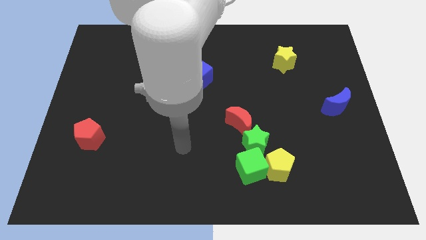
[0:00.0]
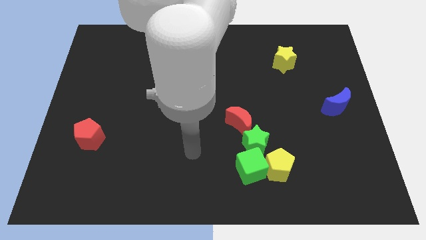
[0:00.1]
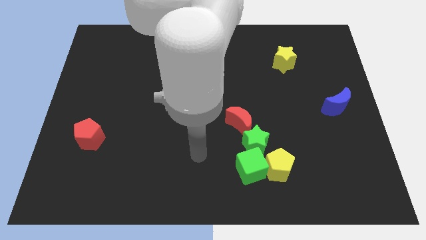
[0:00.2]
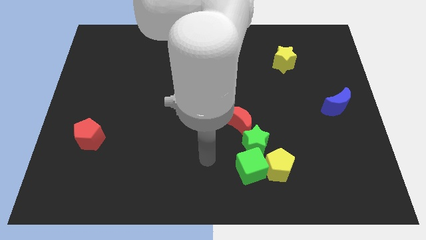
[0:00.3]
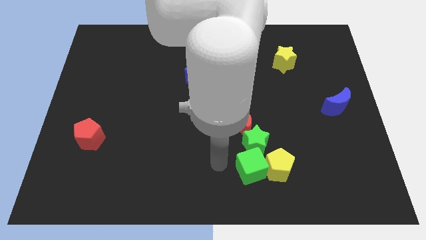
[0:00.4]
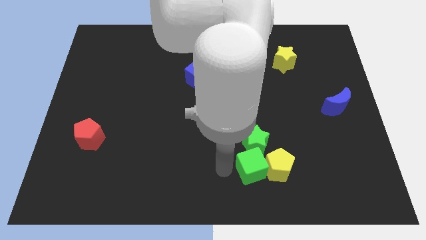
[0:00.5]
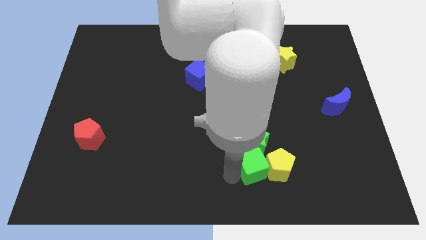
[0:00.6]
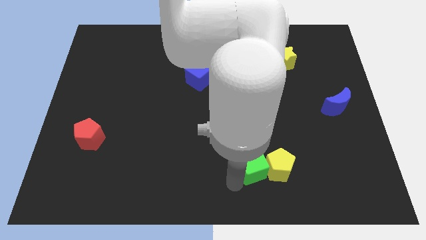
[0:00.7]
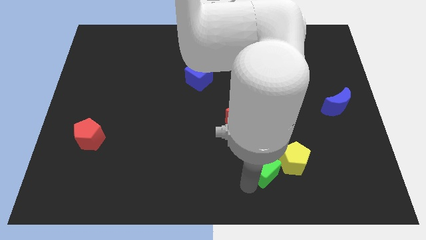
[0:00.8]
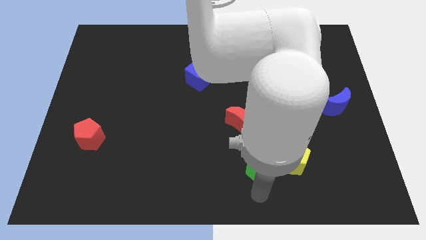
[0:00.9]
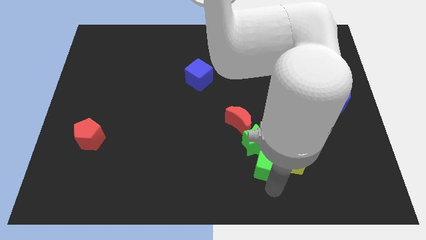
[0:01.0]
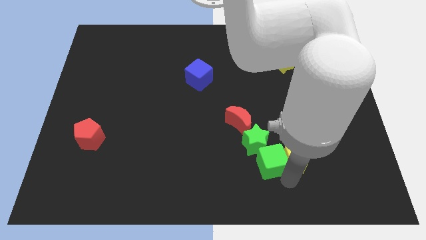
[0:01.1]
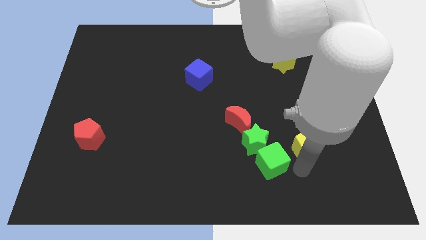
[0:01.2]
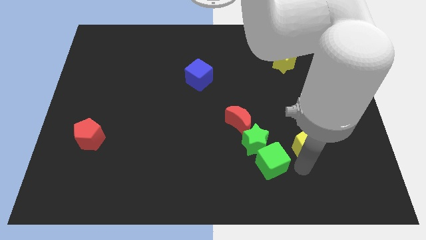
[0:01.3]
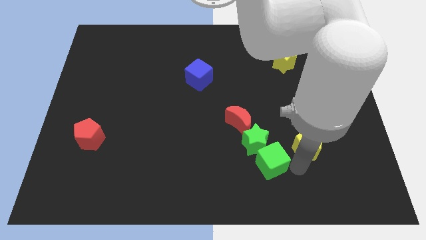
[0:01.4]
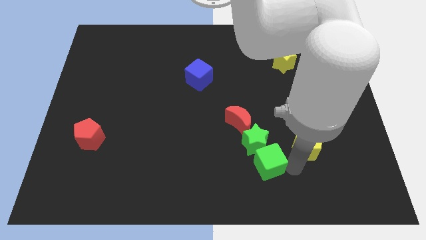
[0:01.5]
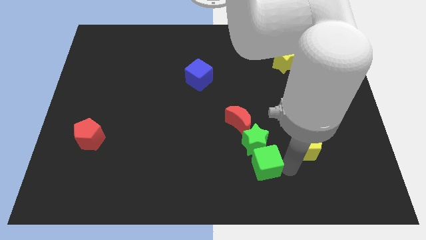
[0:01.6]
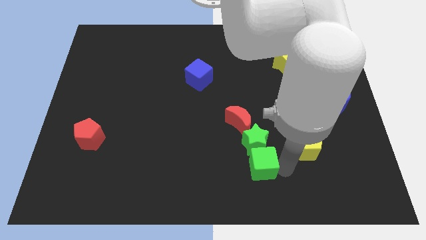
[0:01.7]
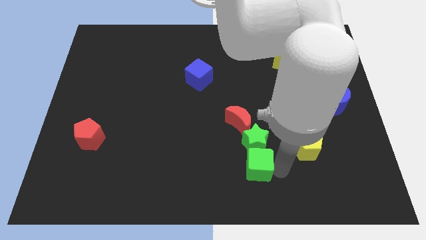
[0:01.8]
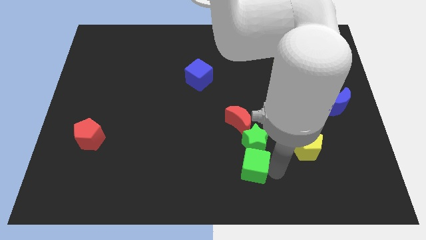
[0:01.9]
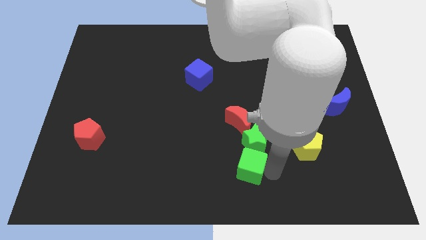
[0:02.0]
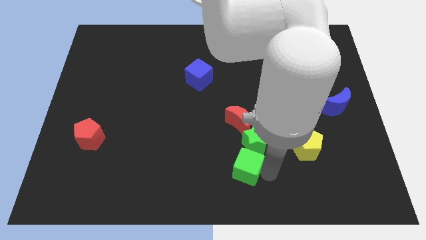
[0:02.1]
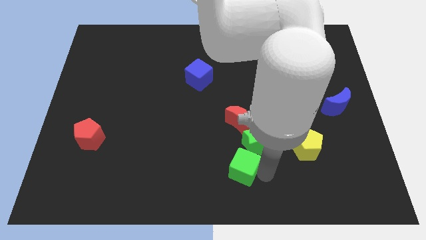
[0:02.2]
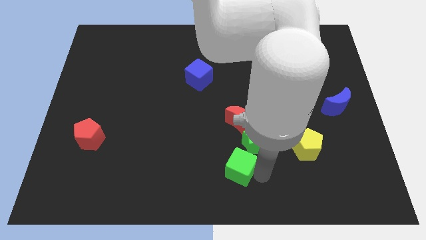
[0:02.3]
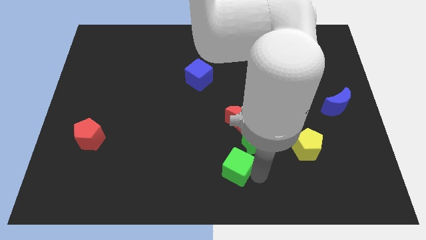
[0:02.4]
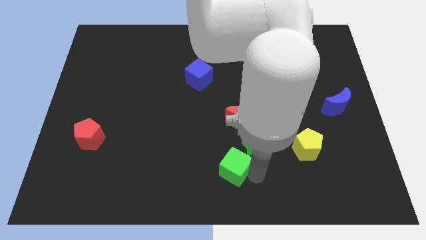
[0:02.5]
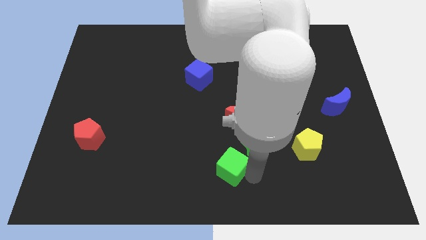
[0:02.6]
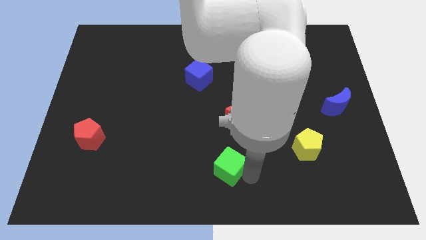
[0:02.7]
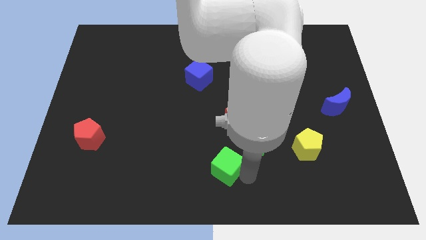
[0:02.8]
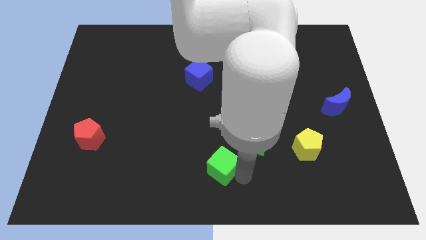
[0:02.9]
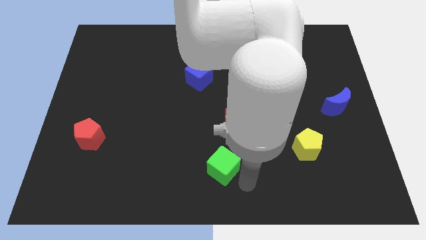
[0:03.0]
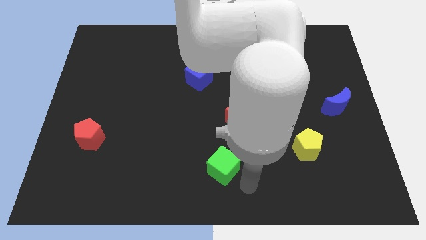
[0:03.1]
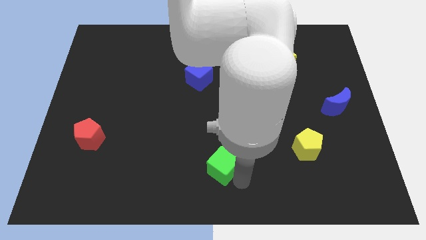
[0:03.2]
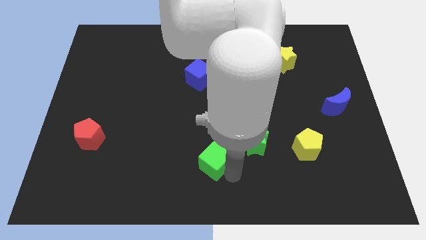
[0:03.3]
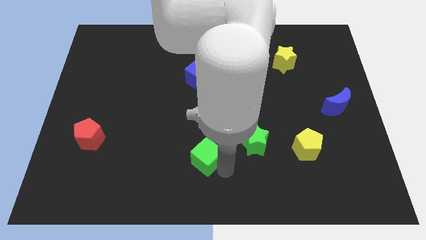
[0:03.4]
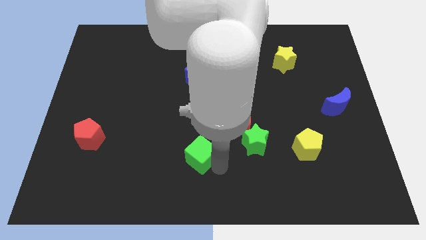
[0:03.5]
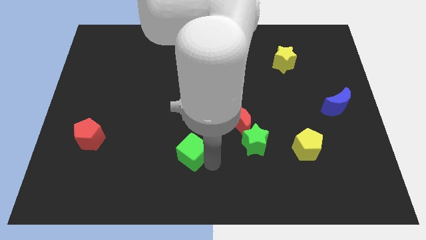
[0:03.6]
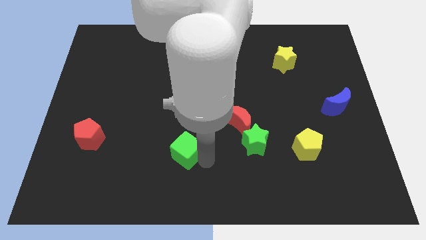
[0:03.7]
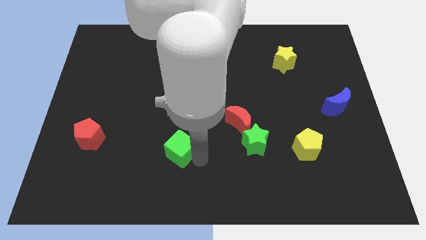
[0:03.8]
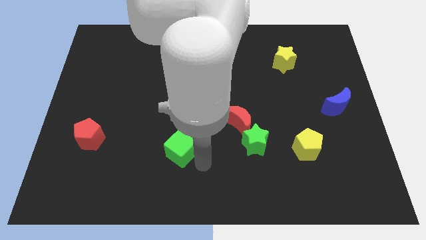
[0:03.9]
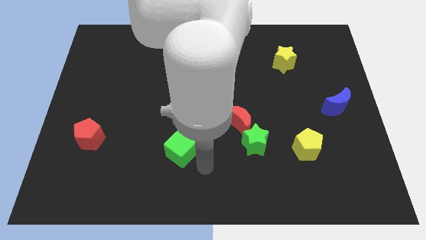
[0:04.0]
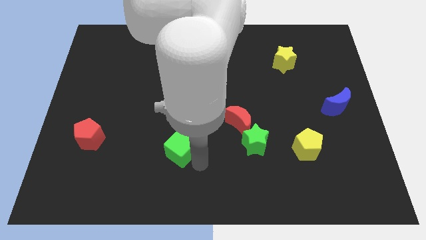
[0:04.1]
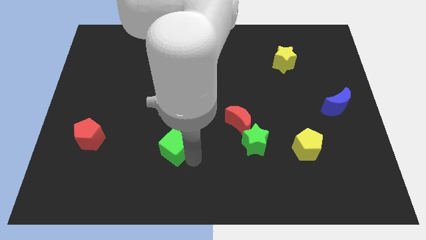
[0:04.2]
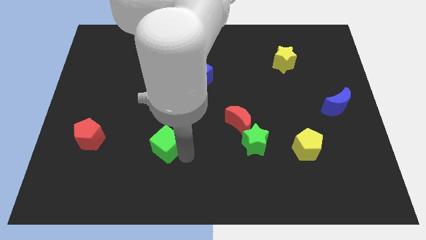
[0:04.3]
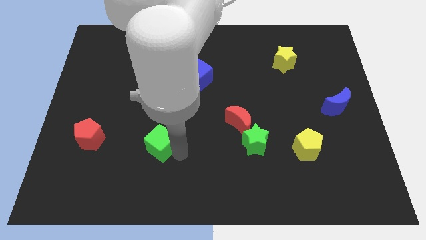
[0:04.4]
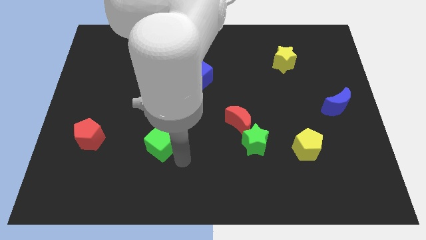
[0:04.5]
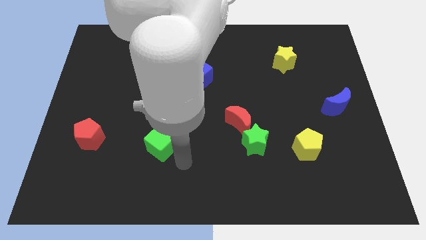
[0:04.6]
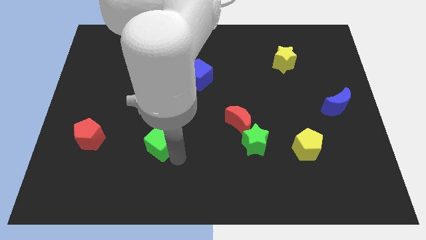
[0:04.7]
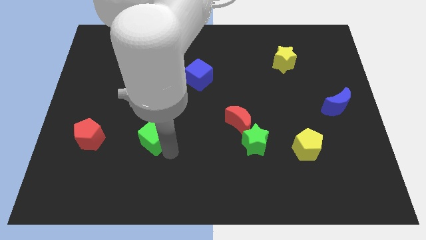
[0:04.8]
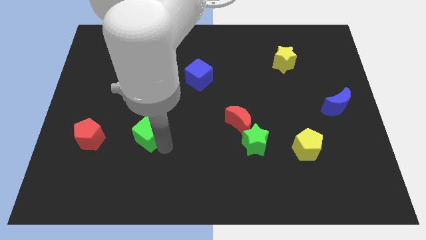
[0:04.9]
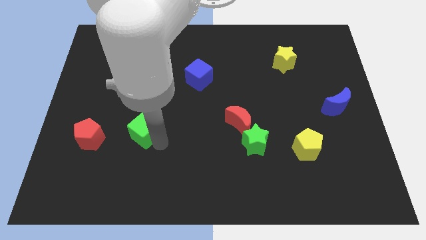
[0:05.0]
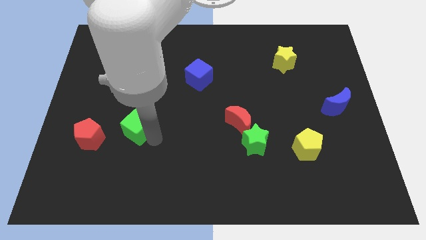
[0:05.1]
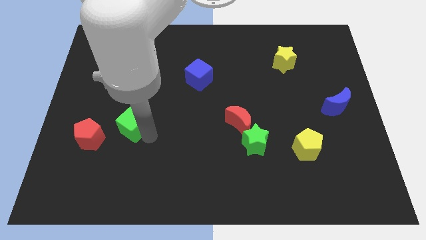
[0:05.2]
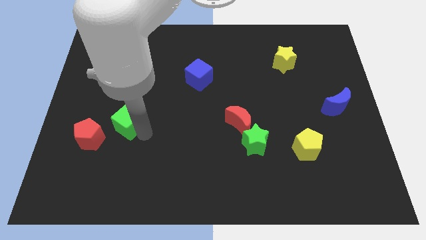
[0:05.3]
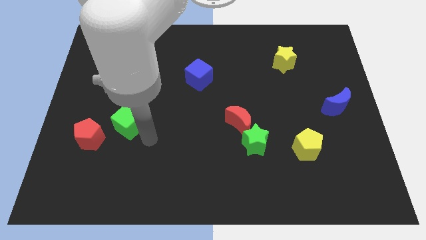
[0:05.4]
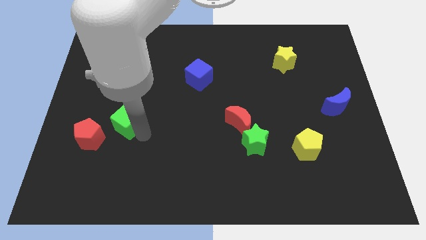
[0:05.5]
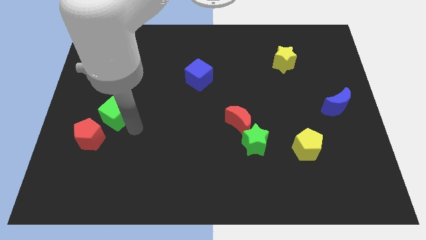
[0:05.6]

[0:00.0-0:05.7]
slide the green cube above the red pentagon
